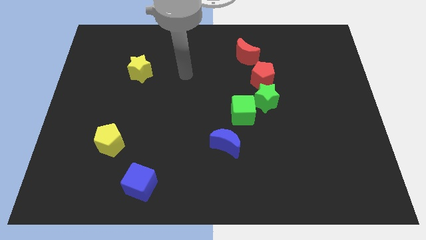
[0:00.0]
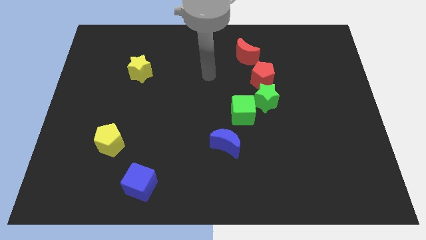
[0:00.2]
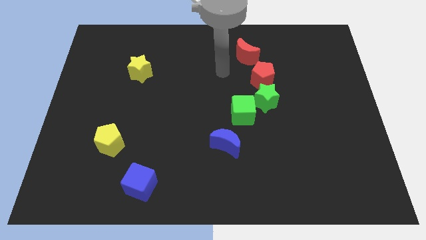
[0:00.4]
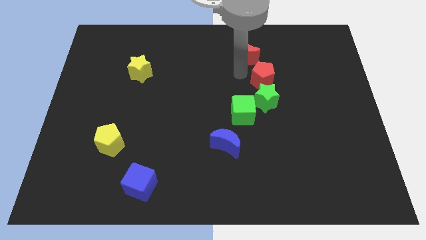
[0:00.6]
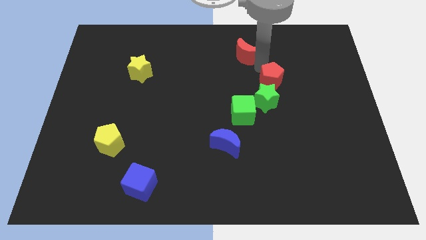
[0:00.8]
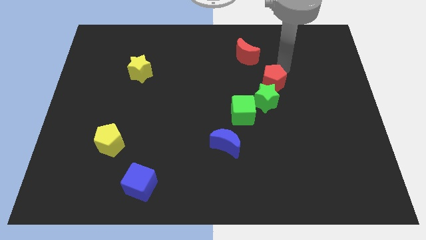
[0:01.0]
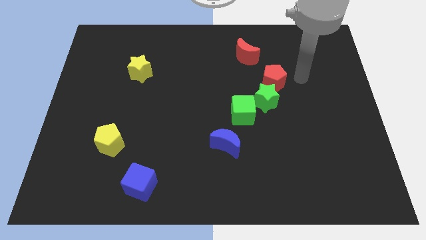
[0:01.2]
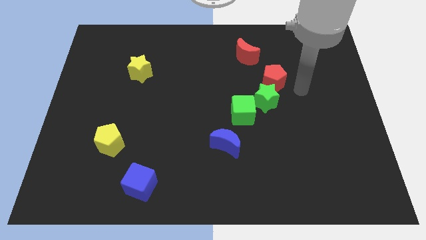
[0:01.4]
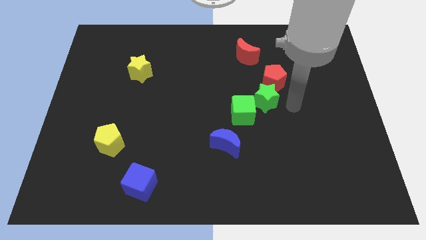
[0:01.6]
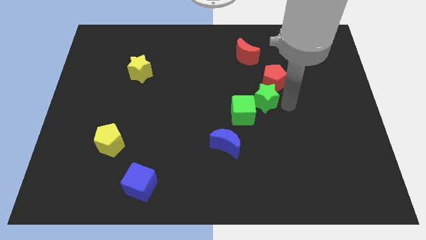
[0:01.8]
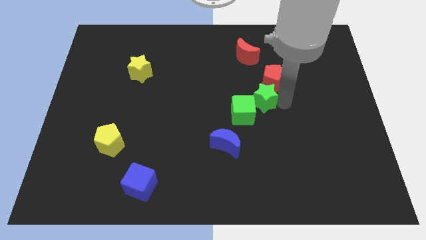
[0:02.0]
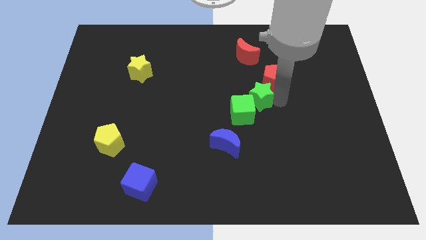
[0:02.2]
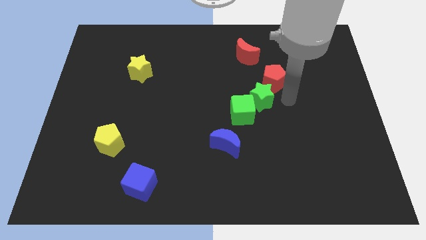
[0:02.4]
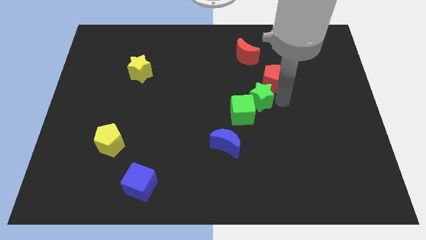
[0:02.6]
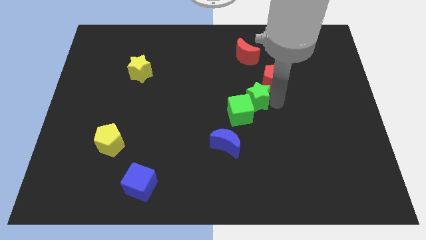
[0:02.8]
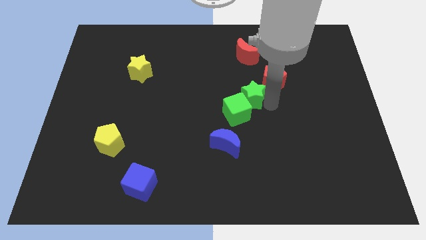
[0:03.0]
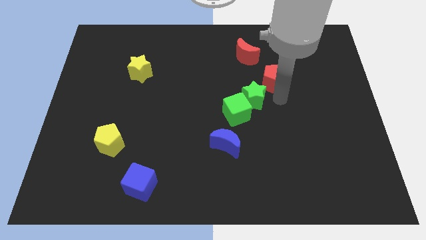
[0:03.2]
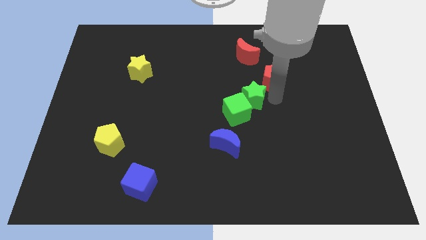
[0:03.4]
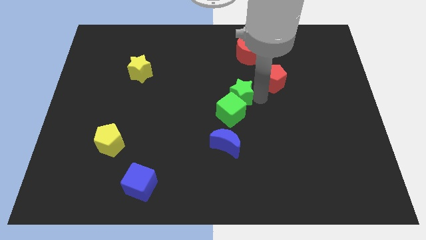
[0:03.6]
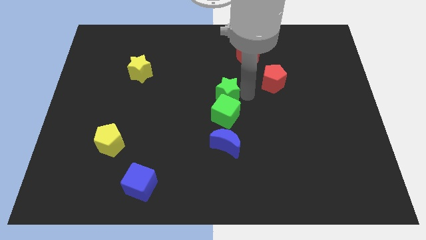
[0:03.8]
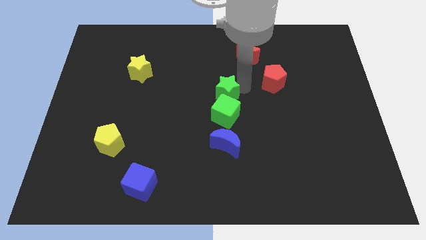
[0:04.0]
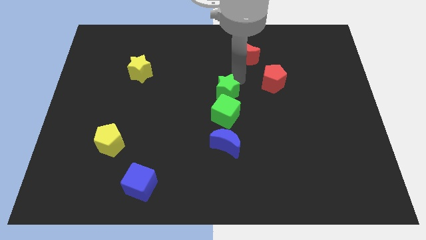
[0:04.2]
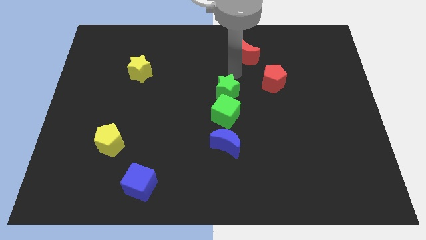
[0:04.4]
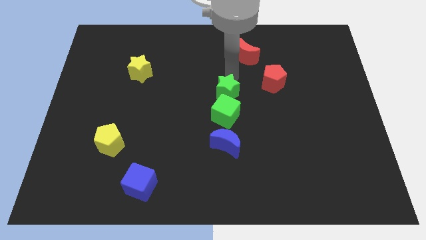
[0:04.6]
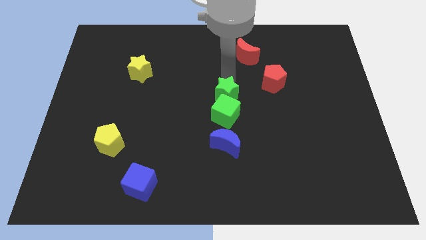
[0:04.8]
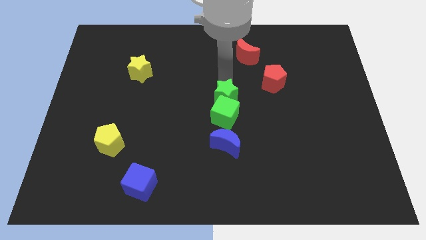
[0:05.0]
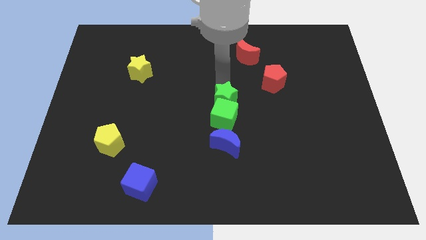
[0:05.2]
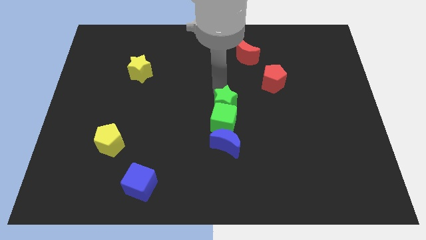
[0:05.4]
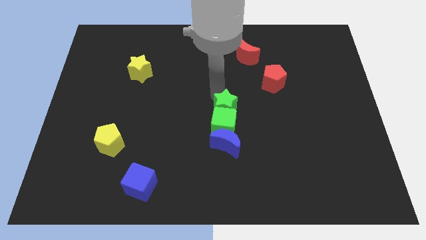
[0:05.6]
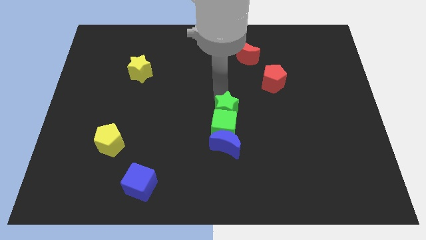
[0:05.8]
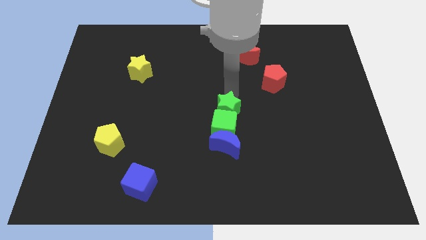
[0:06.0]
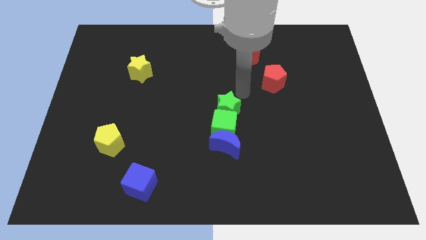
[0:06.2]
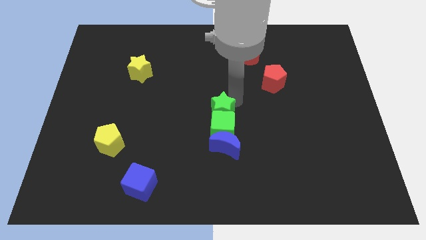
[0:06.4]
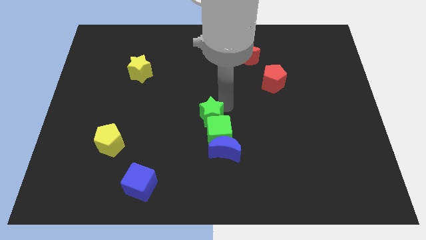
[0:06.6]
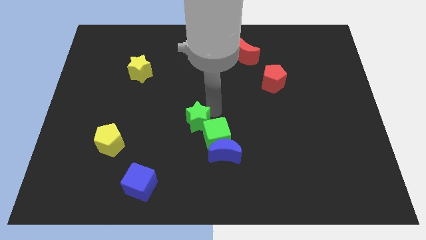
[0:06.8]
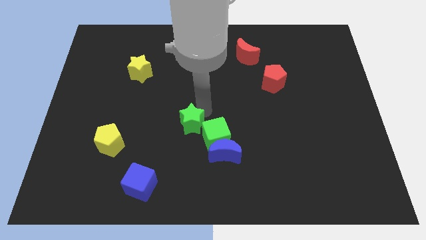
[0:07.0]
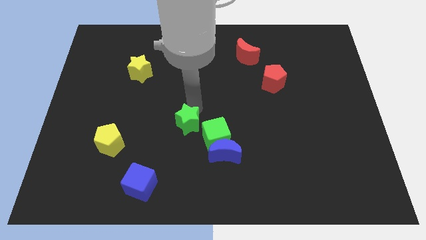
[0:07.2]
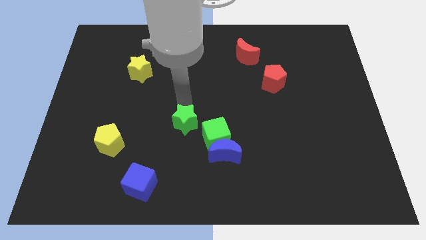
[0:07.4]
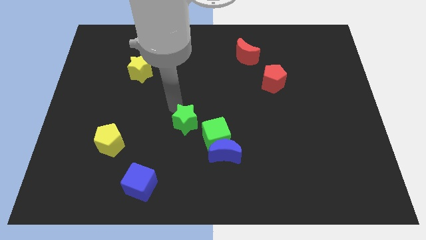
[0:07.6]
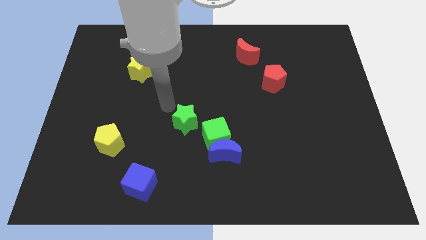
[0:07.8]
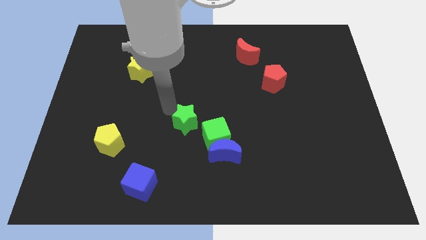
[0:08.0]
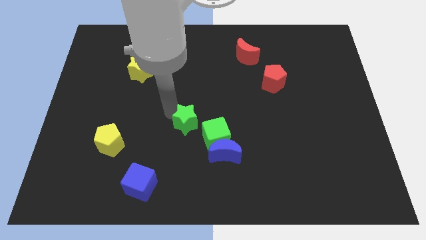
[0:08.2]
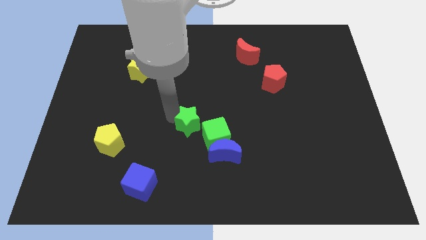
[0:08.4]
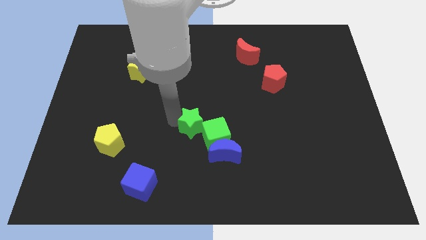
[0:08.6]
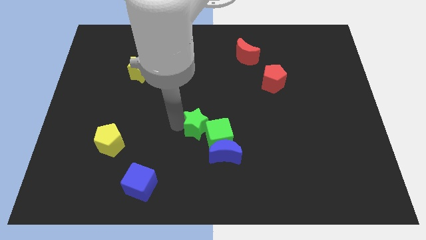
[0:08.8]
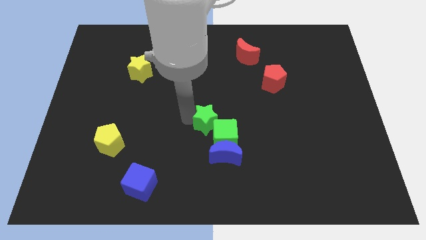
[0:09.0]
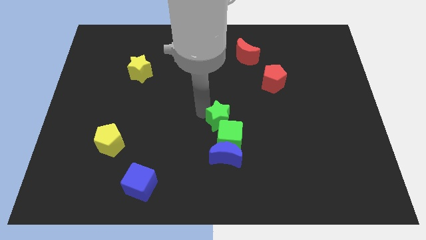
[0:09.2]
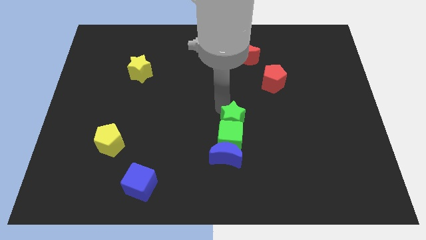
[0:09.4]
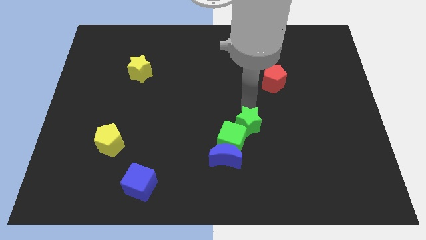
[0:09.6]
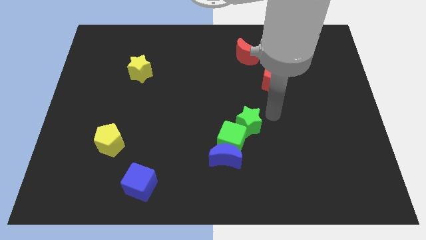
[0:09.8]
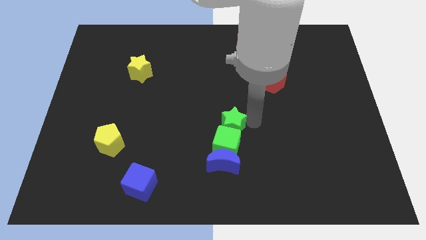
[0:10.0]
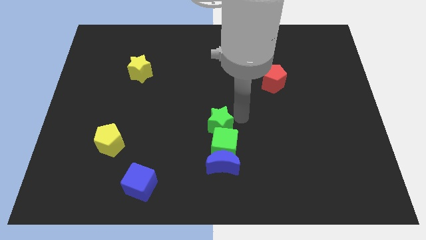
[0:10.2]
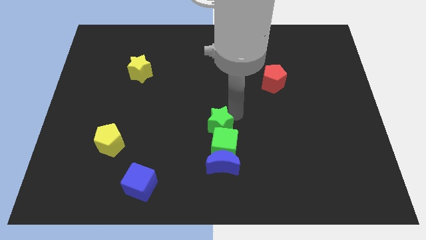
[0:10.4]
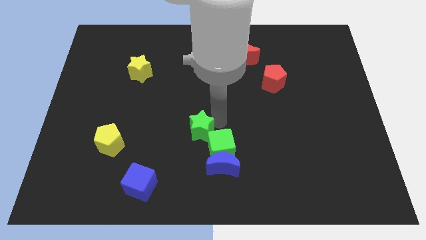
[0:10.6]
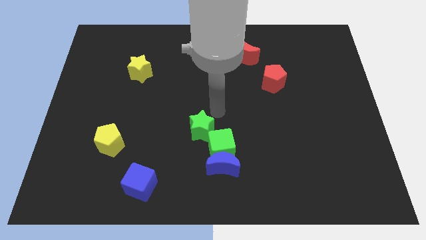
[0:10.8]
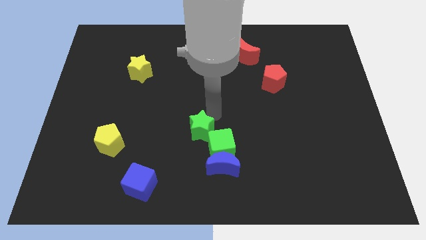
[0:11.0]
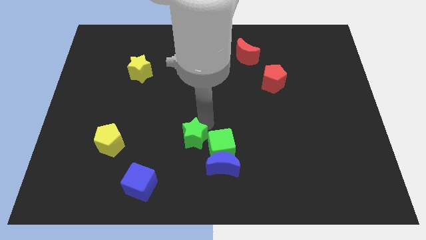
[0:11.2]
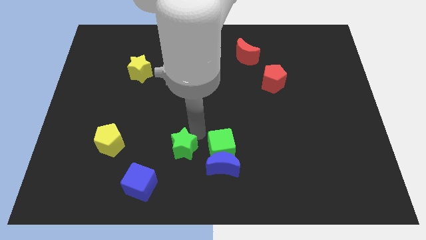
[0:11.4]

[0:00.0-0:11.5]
move the green star to the top right side of the blue cube

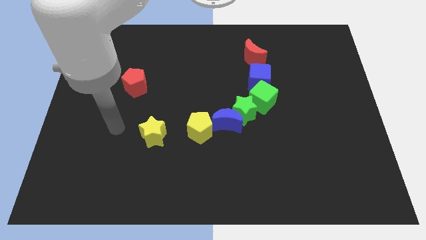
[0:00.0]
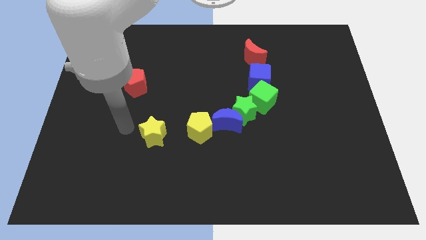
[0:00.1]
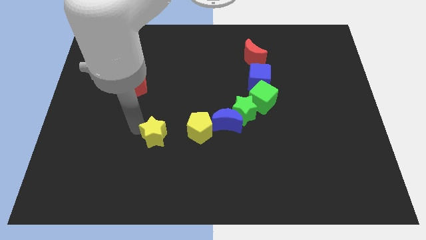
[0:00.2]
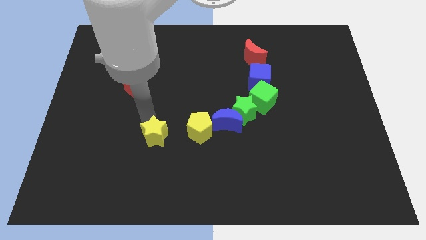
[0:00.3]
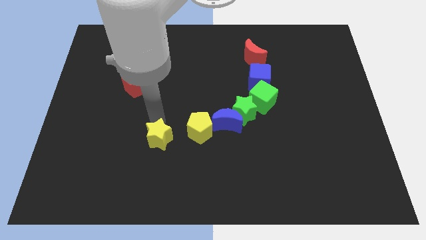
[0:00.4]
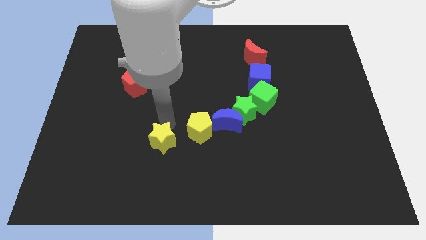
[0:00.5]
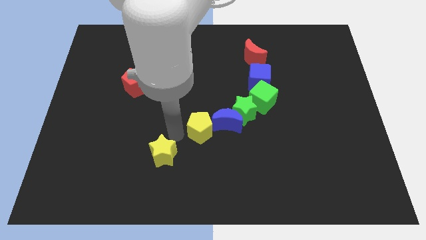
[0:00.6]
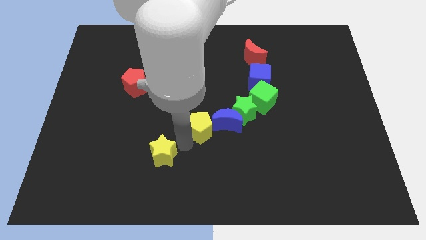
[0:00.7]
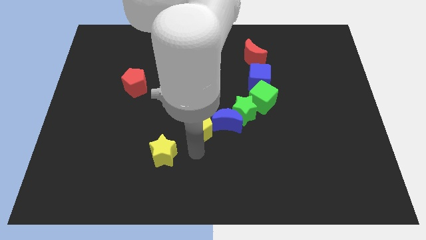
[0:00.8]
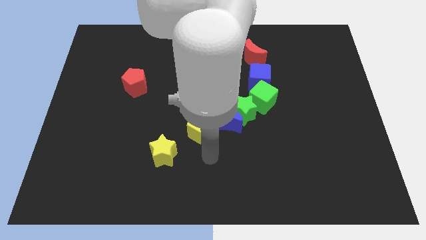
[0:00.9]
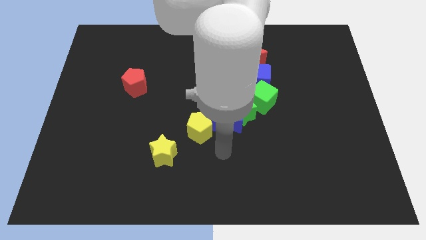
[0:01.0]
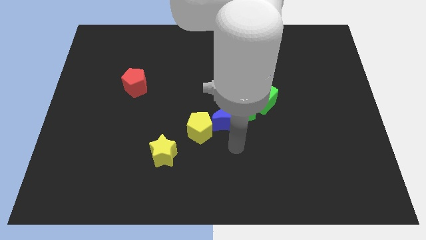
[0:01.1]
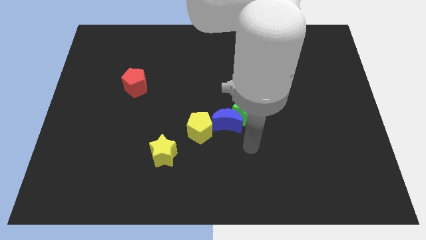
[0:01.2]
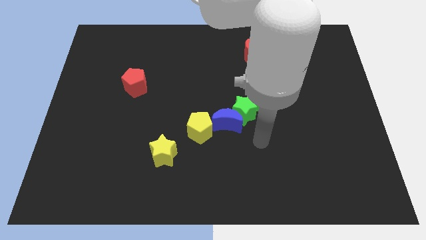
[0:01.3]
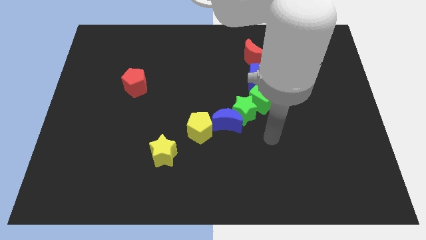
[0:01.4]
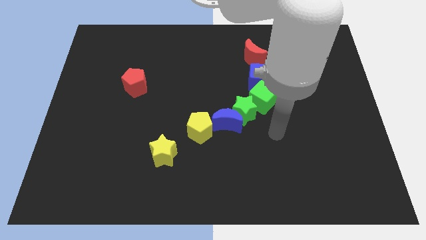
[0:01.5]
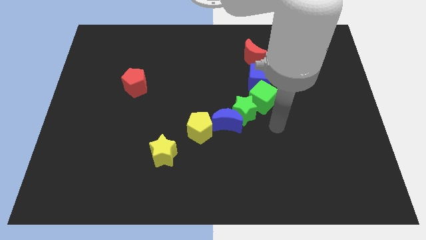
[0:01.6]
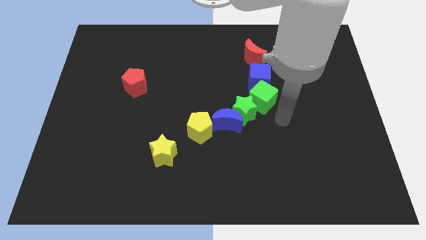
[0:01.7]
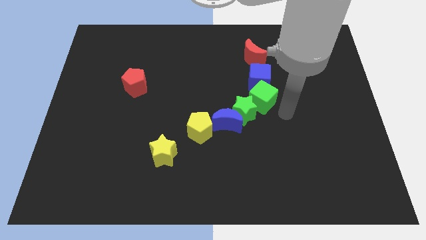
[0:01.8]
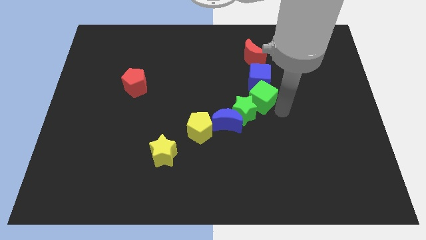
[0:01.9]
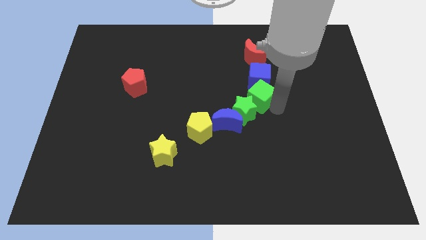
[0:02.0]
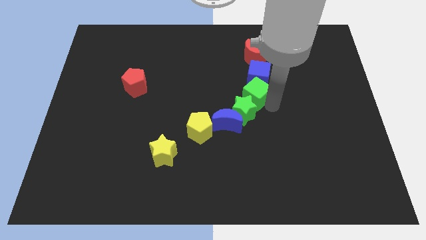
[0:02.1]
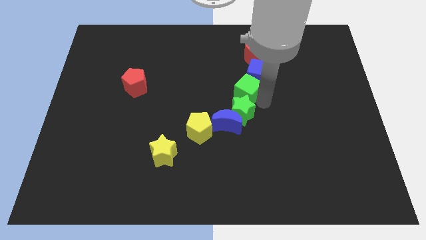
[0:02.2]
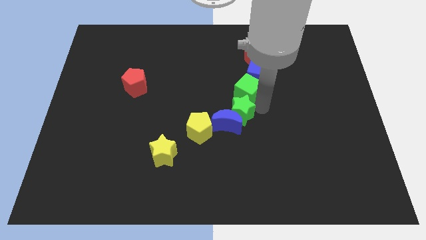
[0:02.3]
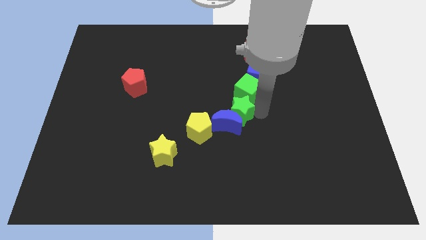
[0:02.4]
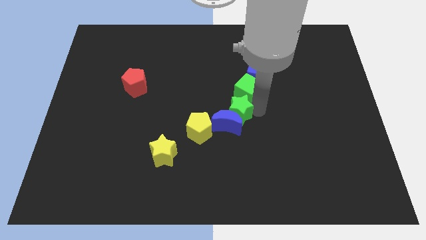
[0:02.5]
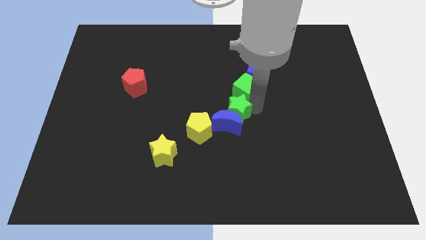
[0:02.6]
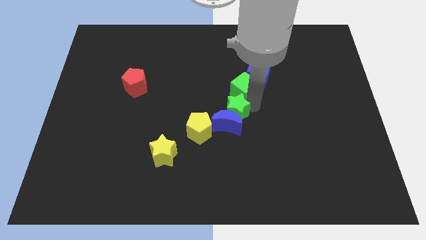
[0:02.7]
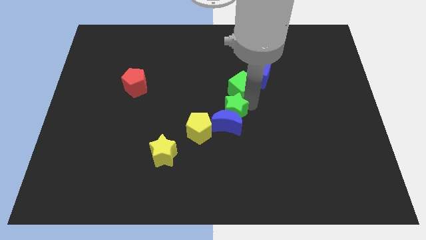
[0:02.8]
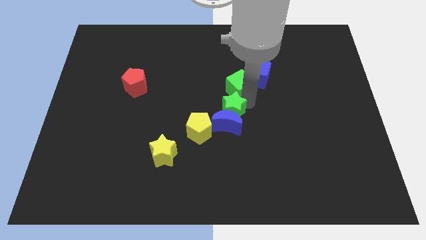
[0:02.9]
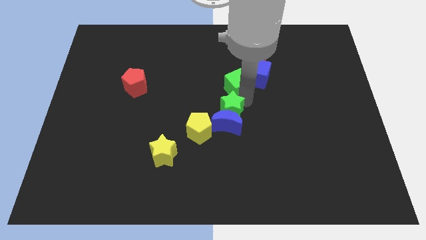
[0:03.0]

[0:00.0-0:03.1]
push the green cube to the bottom left side of the red moon
